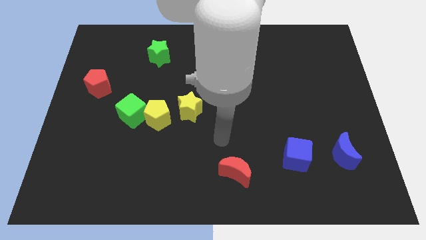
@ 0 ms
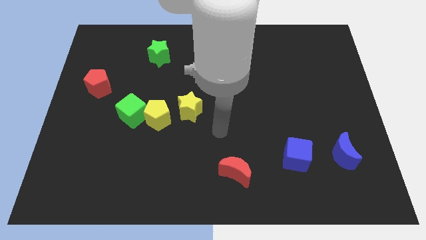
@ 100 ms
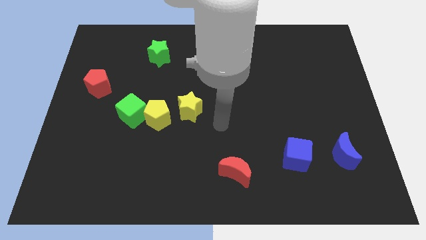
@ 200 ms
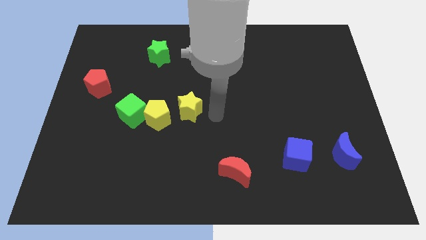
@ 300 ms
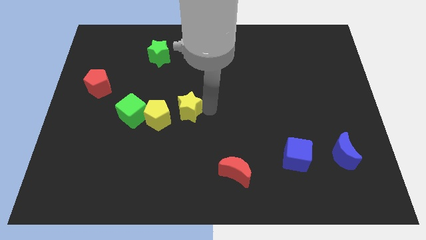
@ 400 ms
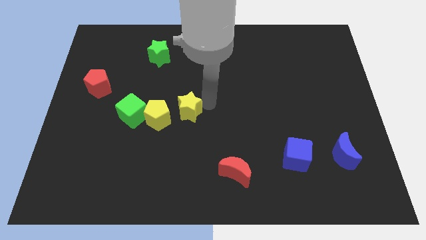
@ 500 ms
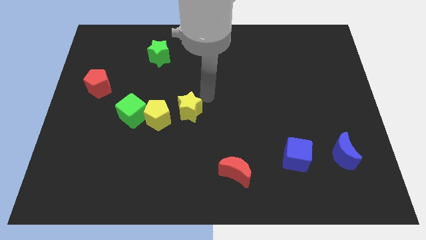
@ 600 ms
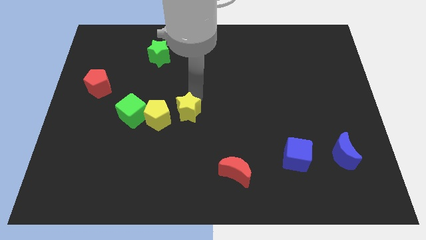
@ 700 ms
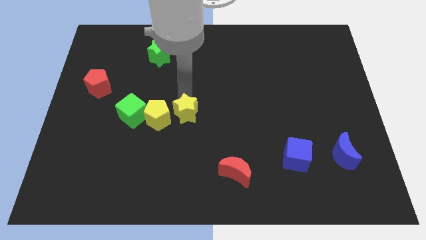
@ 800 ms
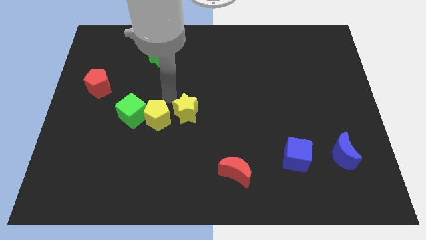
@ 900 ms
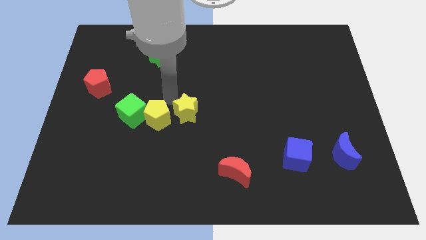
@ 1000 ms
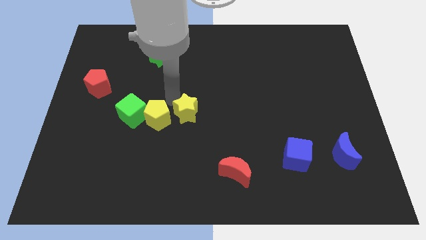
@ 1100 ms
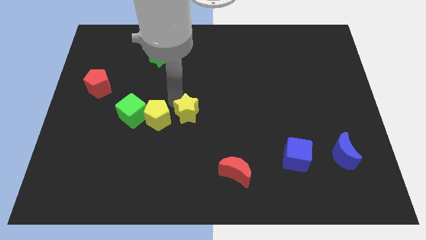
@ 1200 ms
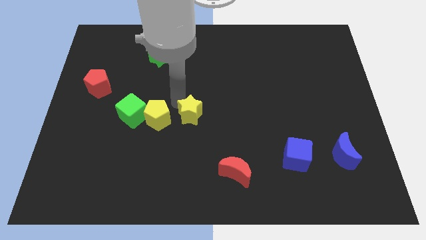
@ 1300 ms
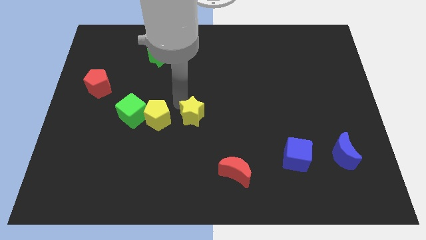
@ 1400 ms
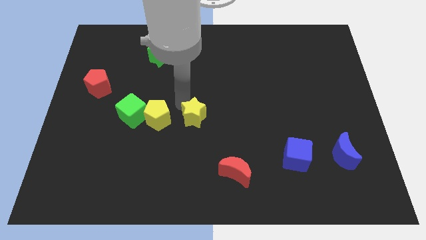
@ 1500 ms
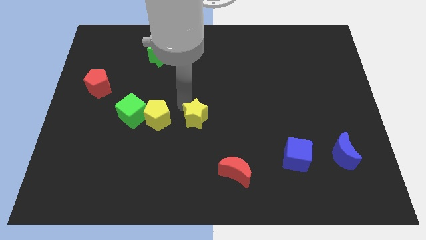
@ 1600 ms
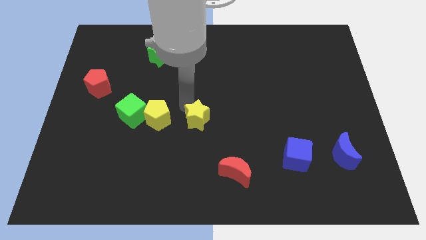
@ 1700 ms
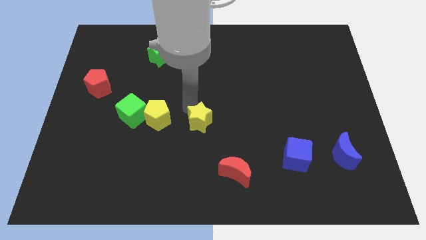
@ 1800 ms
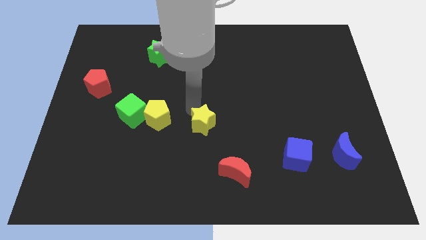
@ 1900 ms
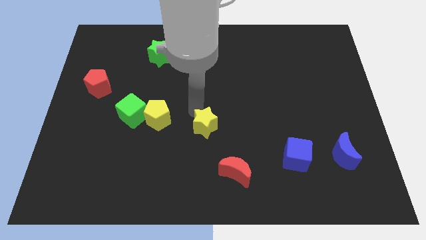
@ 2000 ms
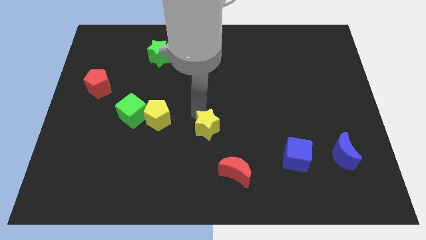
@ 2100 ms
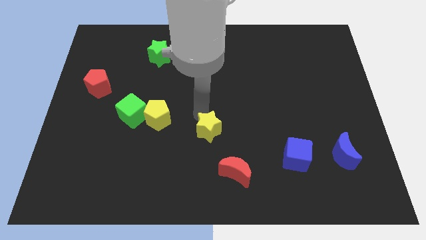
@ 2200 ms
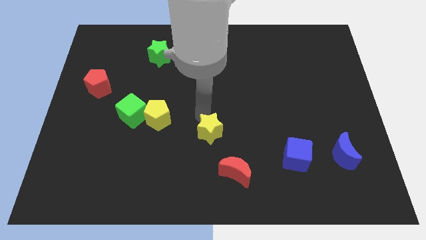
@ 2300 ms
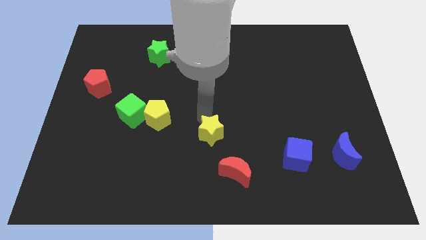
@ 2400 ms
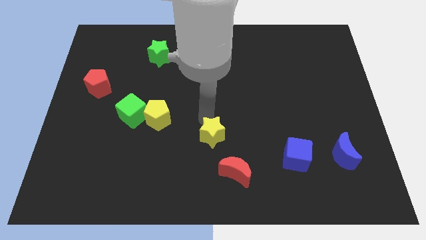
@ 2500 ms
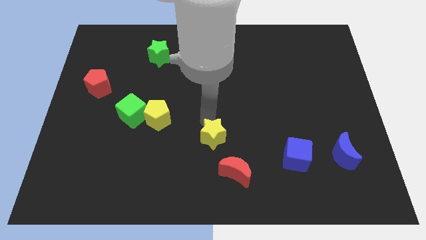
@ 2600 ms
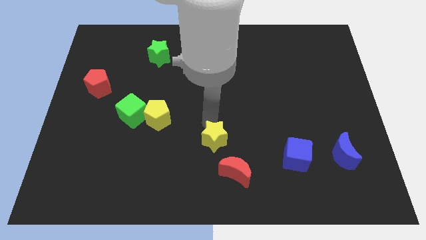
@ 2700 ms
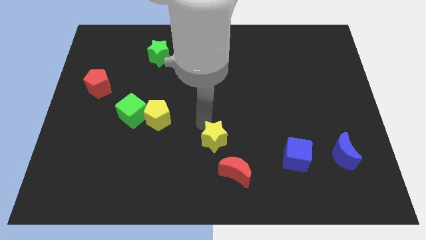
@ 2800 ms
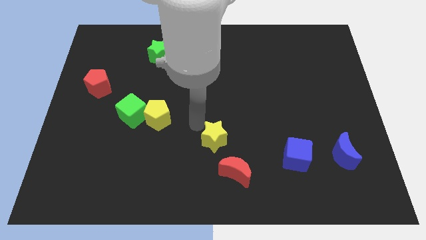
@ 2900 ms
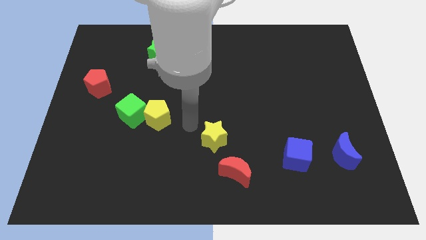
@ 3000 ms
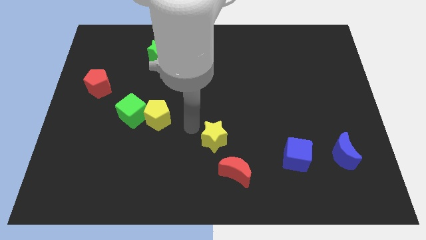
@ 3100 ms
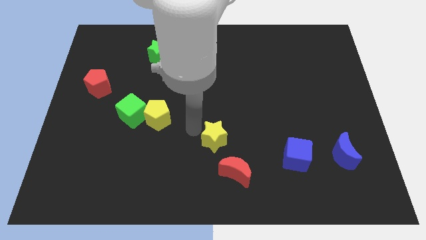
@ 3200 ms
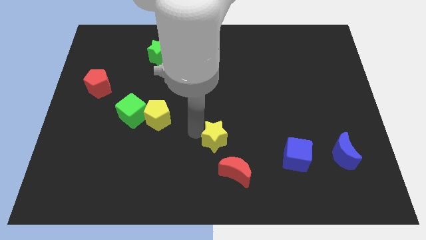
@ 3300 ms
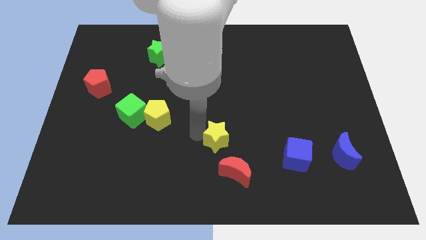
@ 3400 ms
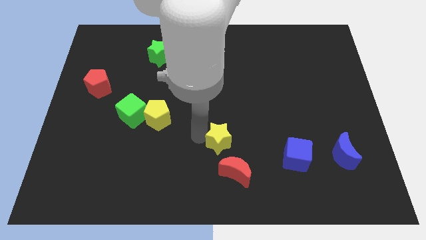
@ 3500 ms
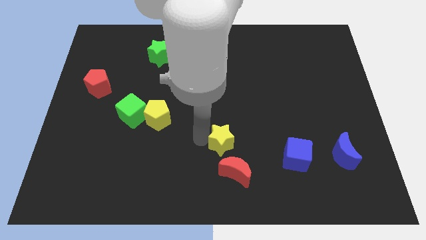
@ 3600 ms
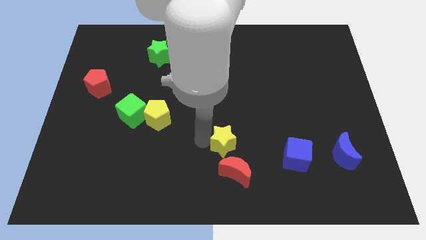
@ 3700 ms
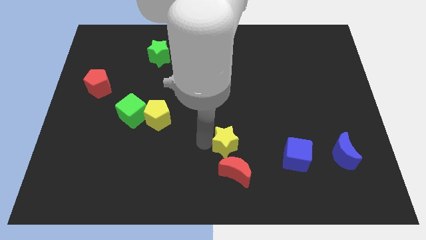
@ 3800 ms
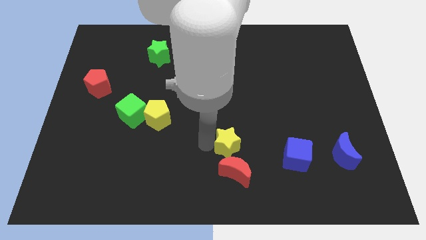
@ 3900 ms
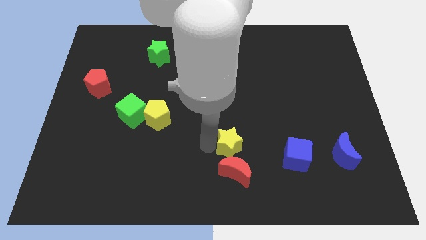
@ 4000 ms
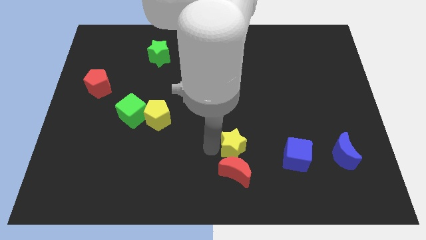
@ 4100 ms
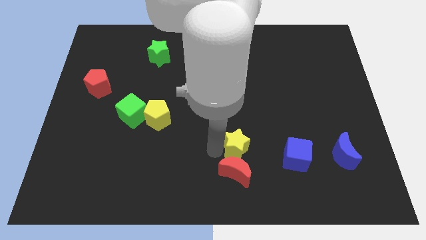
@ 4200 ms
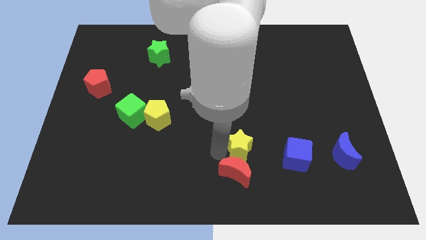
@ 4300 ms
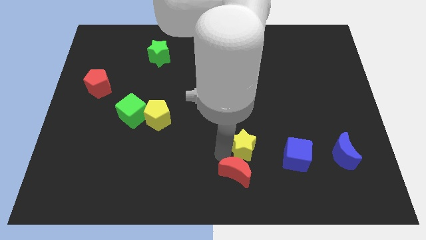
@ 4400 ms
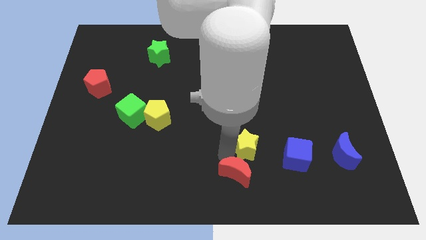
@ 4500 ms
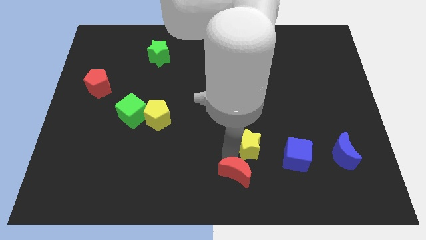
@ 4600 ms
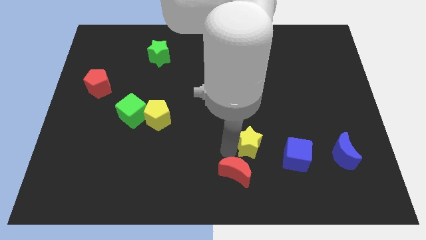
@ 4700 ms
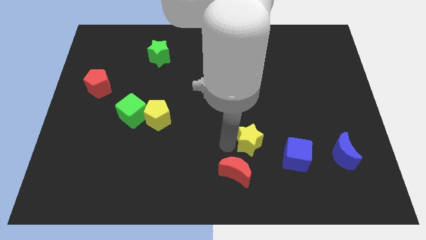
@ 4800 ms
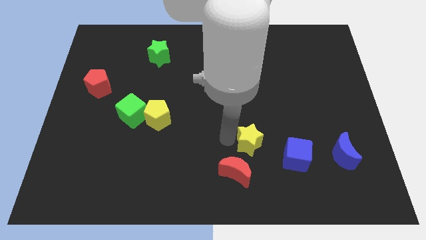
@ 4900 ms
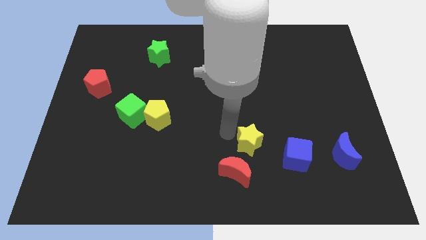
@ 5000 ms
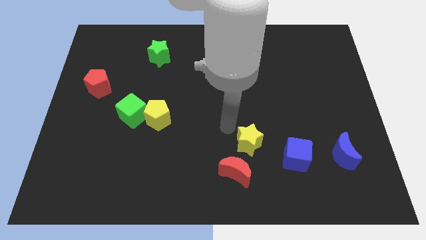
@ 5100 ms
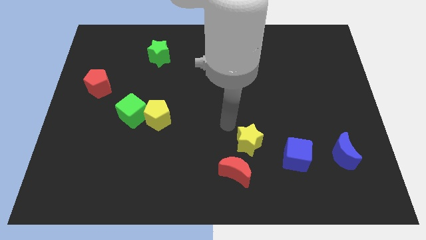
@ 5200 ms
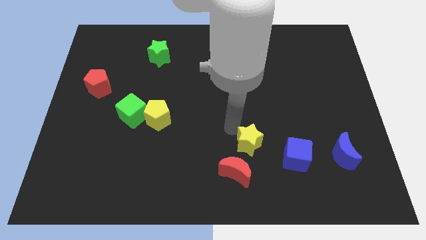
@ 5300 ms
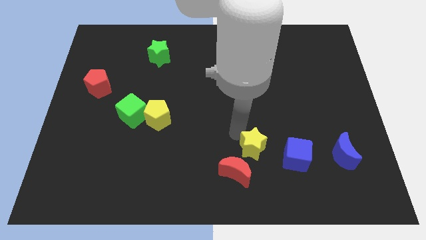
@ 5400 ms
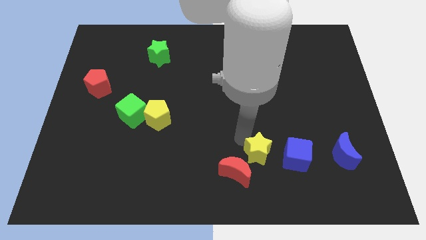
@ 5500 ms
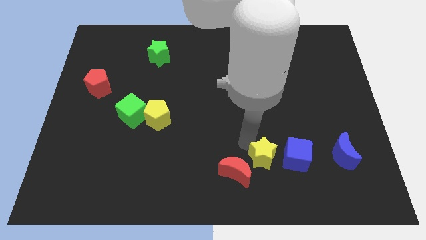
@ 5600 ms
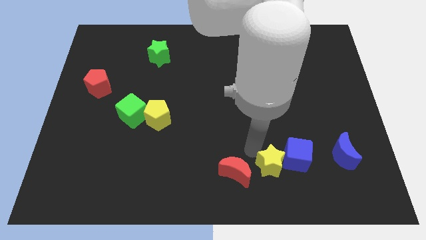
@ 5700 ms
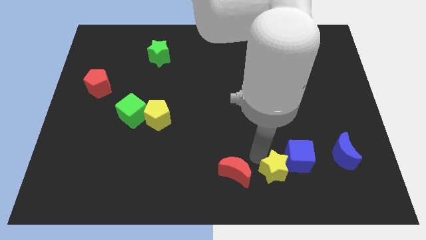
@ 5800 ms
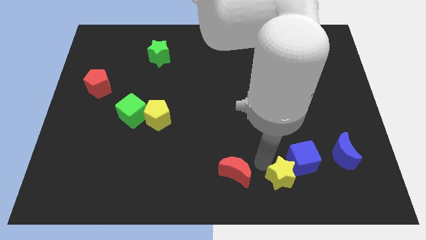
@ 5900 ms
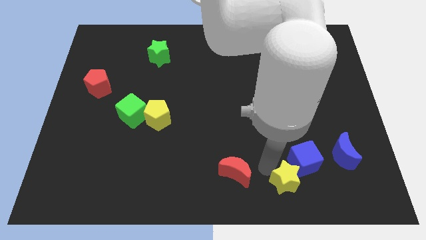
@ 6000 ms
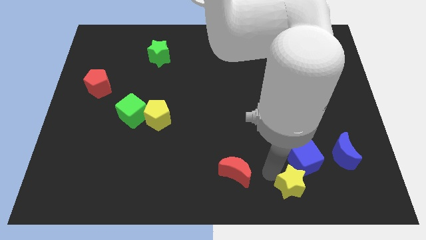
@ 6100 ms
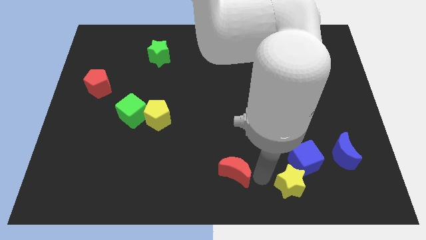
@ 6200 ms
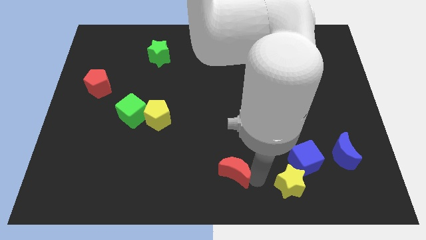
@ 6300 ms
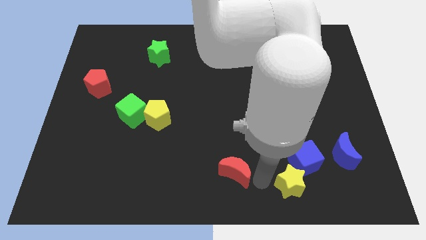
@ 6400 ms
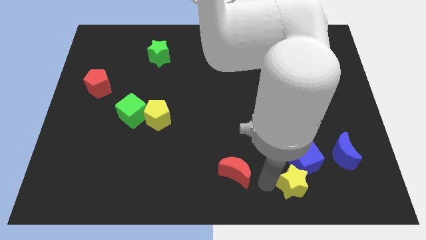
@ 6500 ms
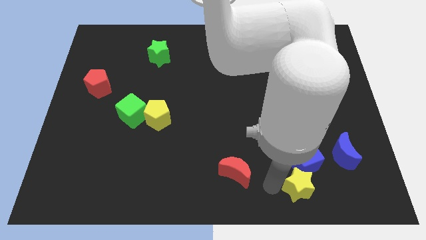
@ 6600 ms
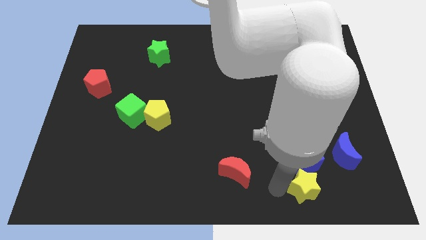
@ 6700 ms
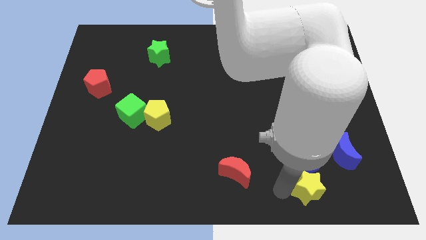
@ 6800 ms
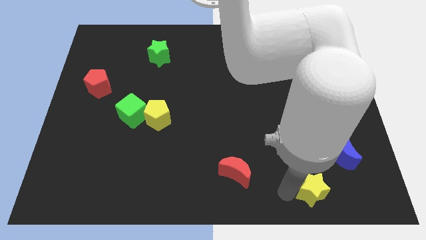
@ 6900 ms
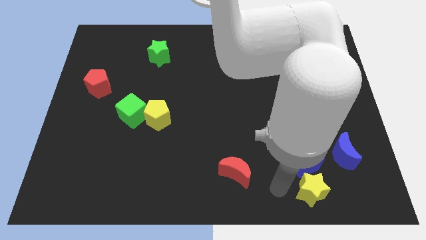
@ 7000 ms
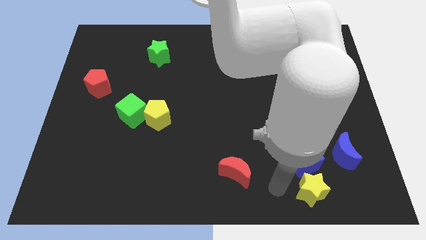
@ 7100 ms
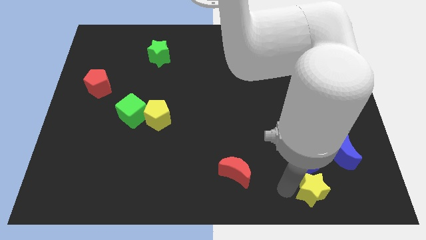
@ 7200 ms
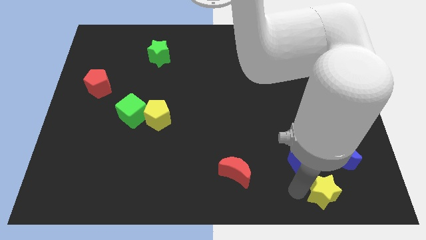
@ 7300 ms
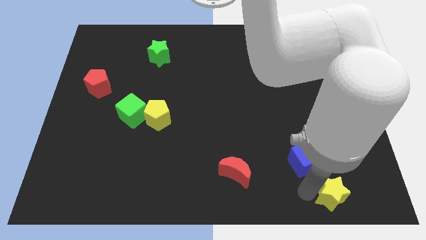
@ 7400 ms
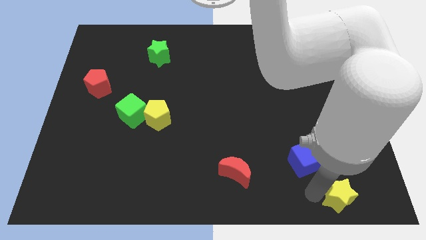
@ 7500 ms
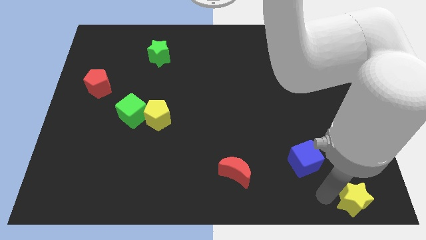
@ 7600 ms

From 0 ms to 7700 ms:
put the yellow star to the bottom right of the board
